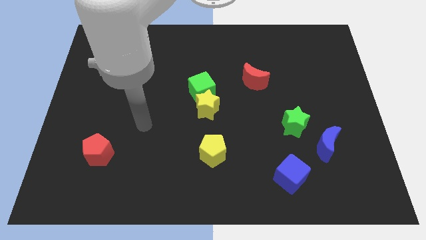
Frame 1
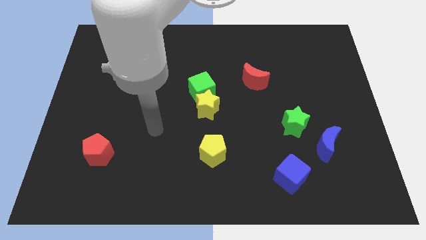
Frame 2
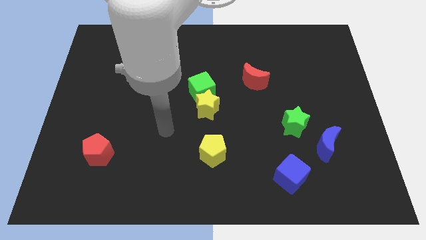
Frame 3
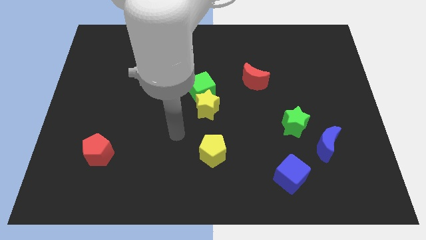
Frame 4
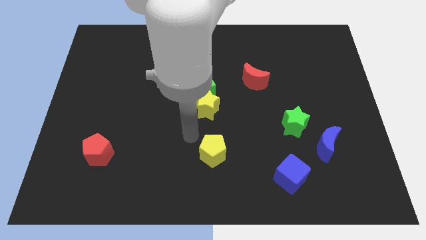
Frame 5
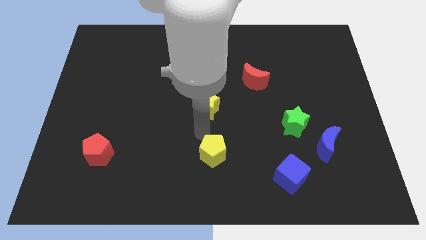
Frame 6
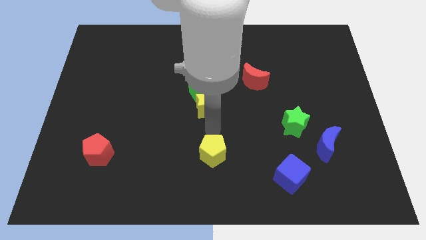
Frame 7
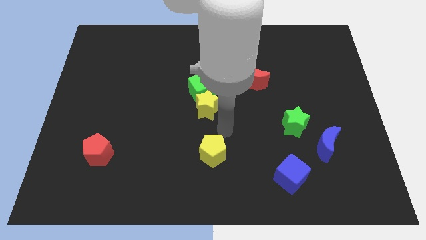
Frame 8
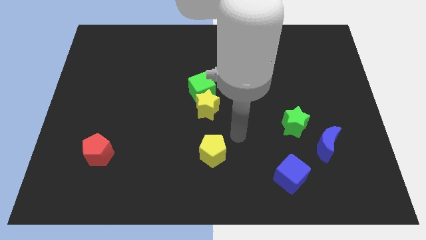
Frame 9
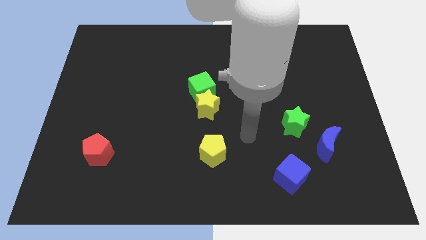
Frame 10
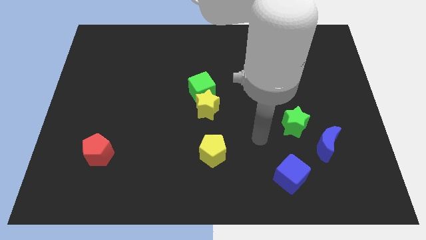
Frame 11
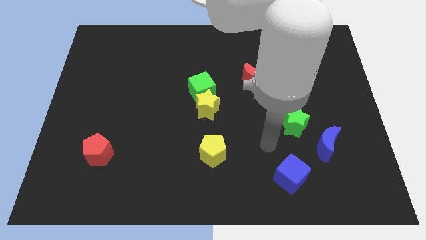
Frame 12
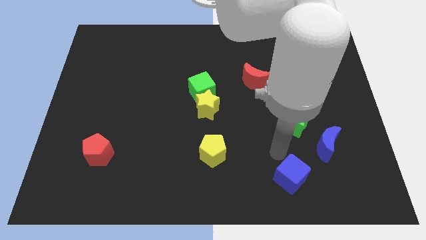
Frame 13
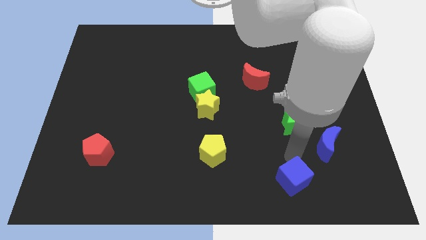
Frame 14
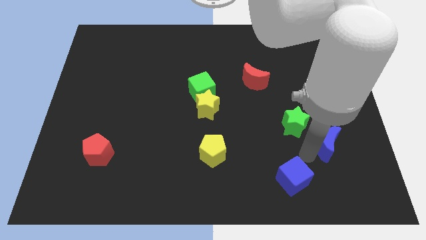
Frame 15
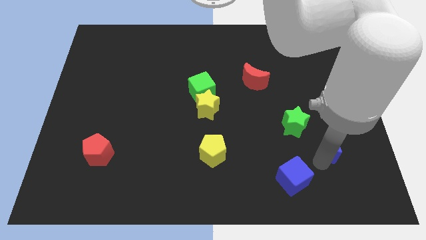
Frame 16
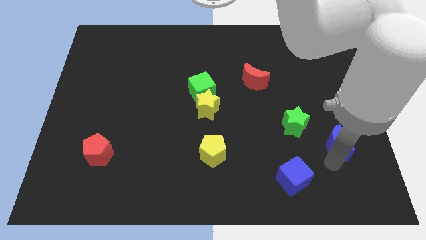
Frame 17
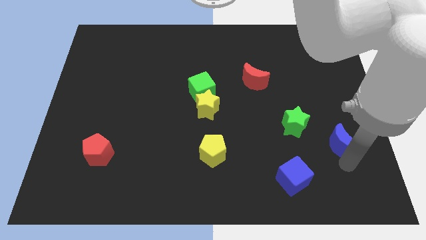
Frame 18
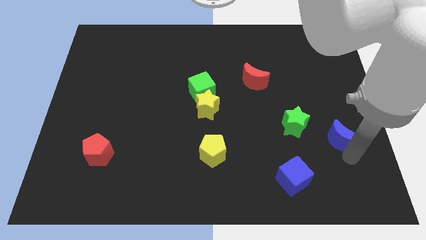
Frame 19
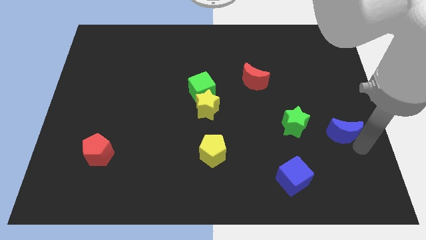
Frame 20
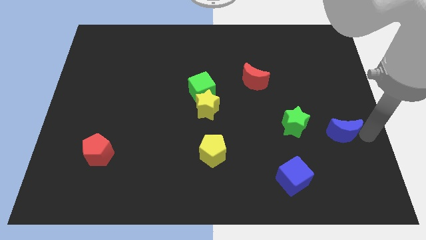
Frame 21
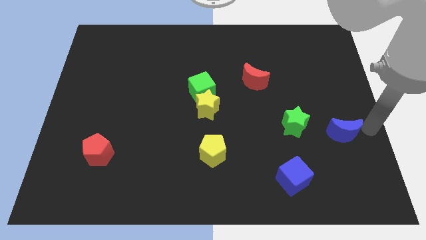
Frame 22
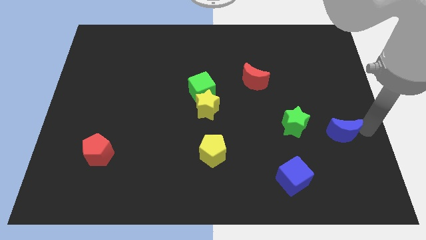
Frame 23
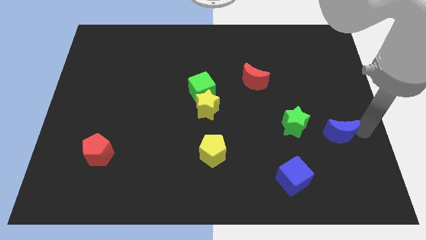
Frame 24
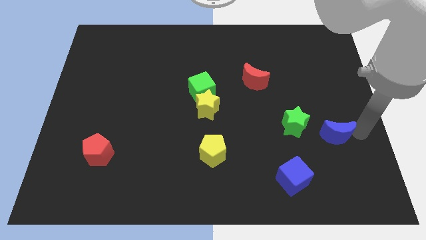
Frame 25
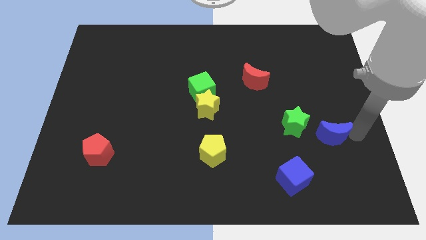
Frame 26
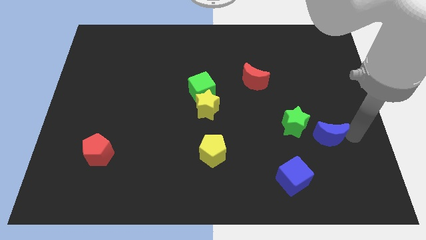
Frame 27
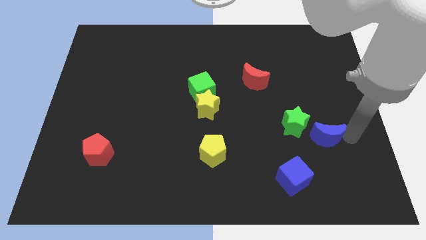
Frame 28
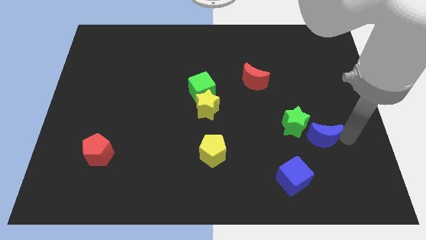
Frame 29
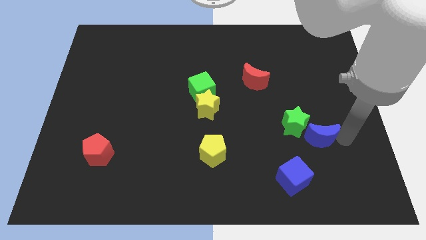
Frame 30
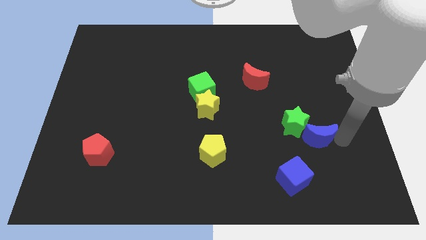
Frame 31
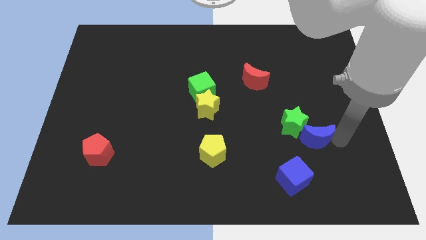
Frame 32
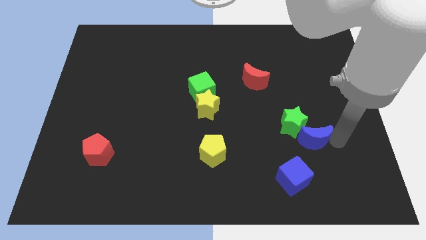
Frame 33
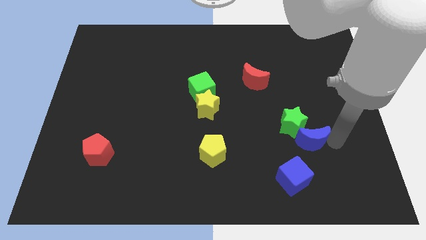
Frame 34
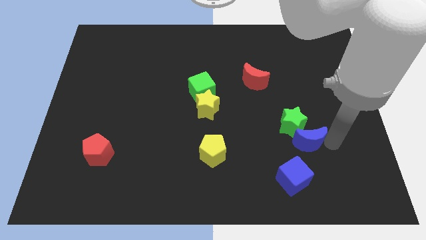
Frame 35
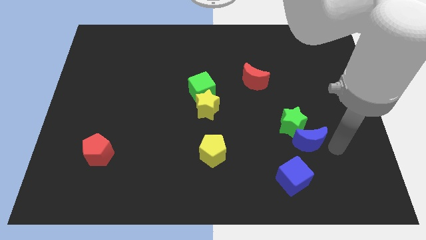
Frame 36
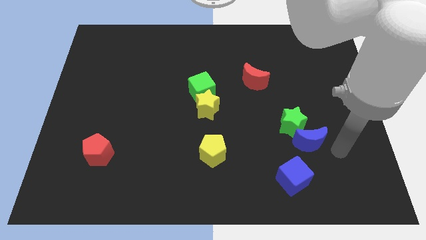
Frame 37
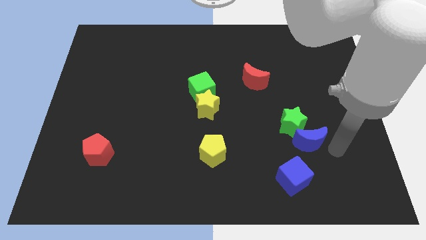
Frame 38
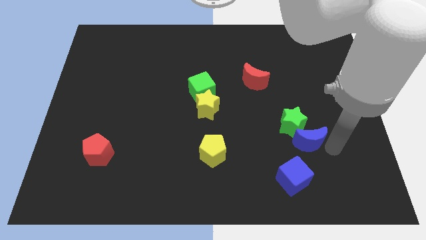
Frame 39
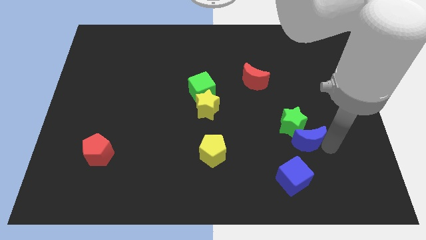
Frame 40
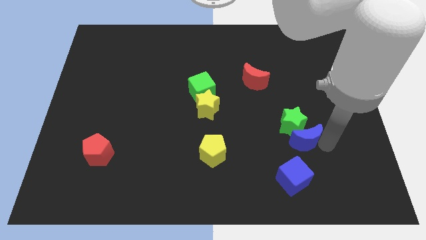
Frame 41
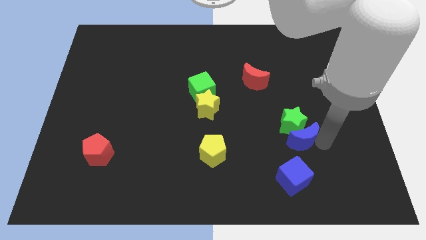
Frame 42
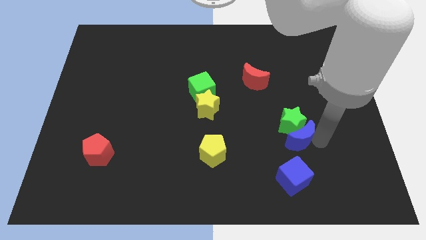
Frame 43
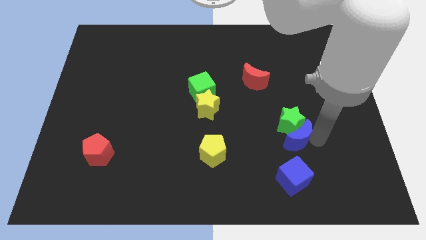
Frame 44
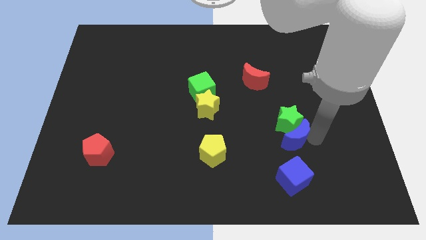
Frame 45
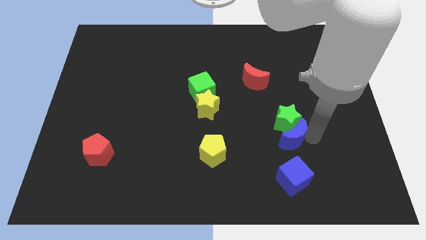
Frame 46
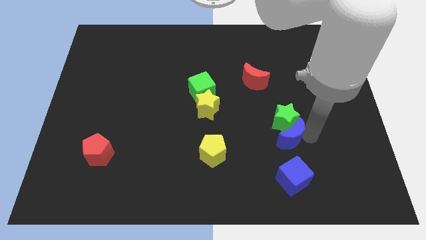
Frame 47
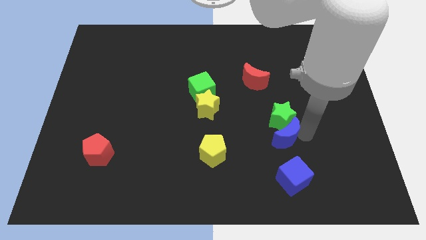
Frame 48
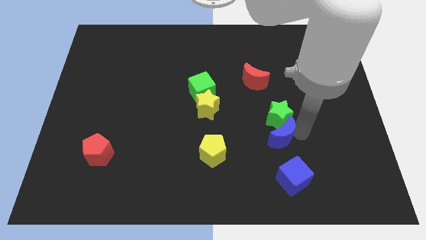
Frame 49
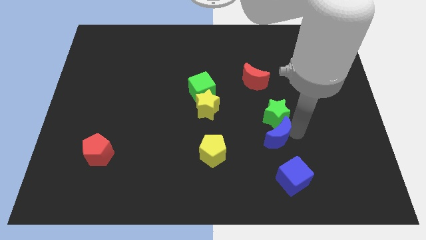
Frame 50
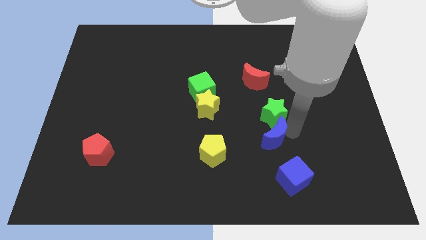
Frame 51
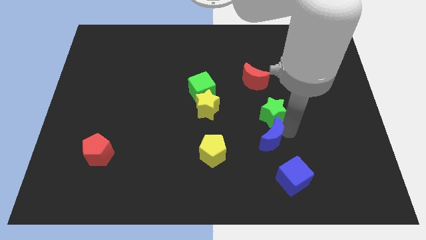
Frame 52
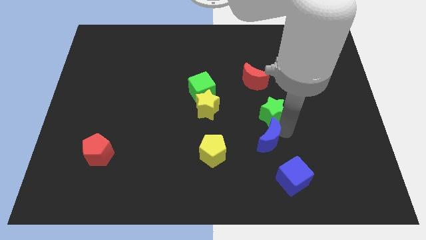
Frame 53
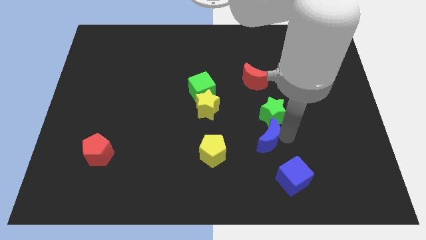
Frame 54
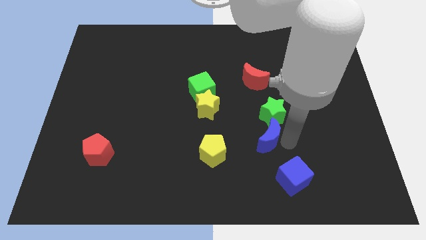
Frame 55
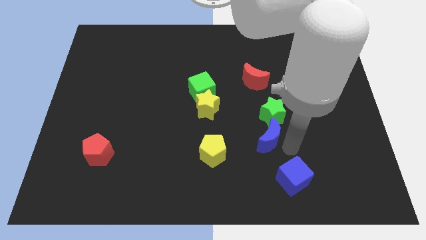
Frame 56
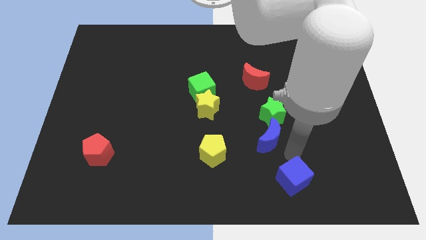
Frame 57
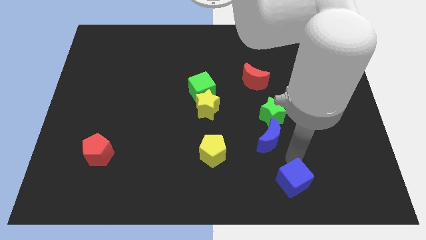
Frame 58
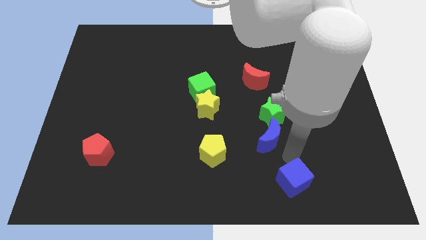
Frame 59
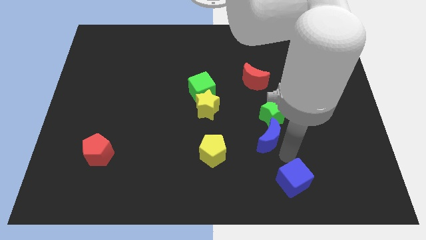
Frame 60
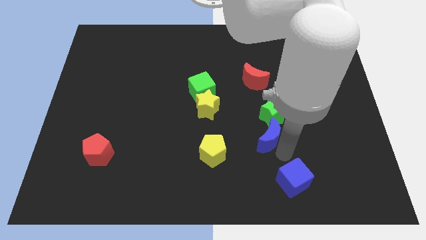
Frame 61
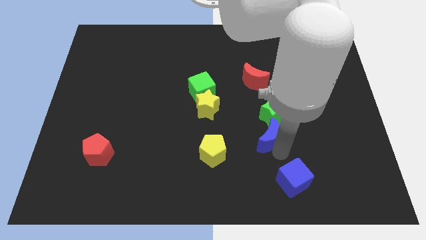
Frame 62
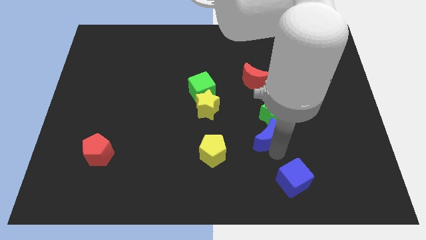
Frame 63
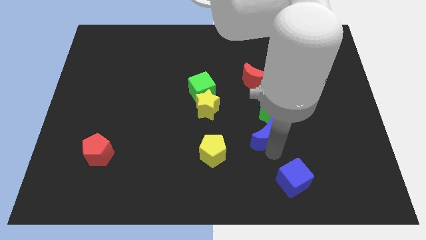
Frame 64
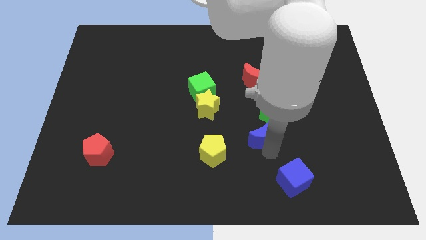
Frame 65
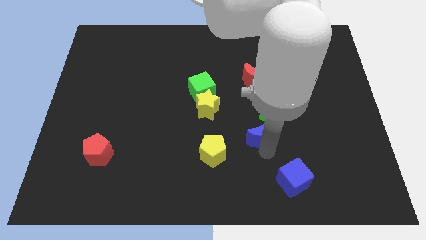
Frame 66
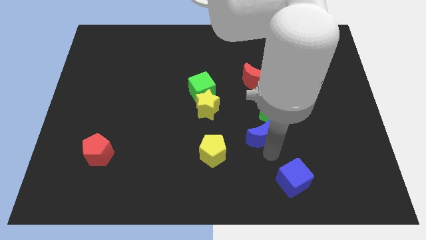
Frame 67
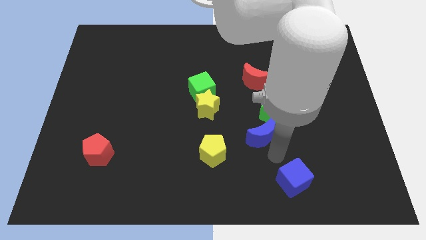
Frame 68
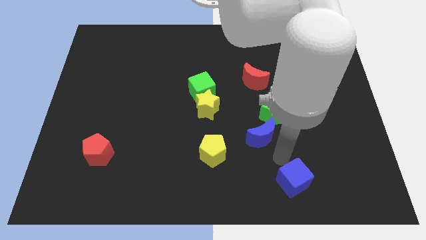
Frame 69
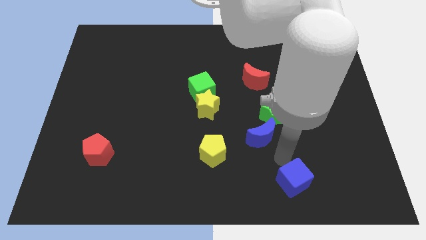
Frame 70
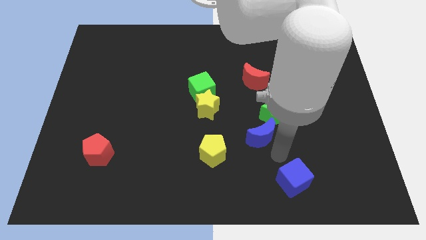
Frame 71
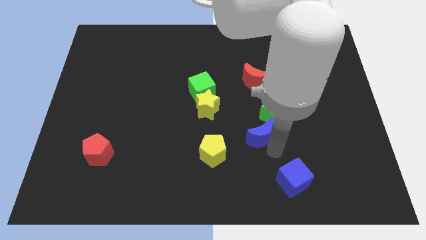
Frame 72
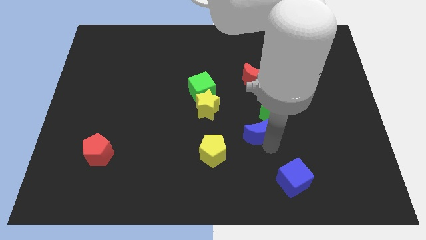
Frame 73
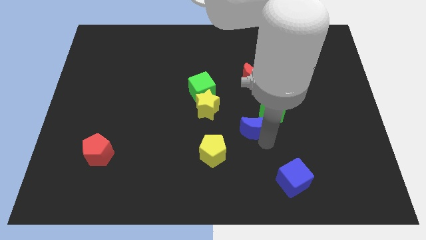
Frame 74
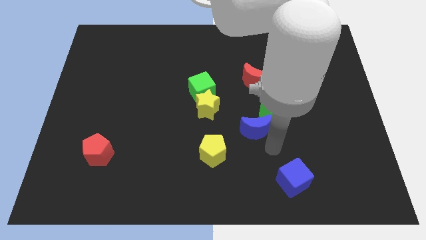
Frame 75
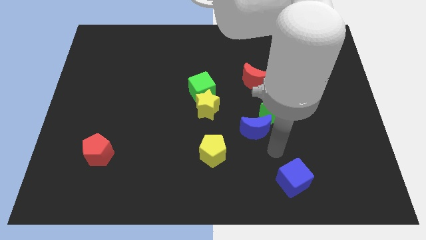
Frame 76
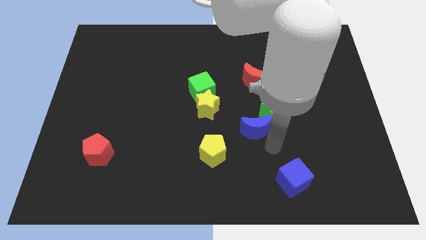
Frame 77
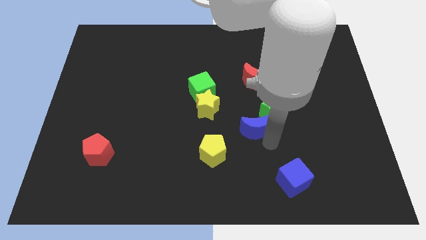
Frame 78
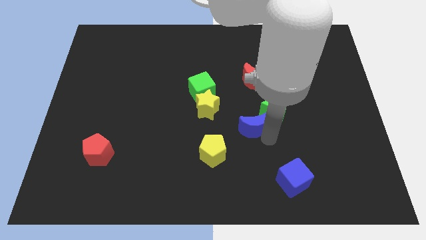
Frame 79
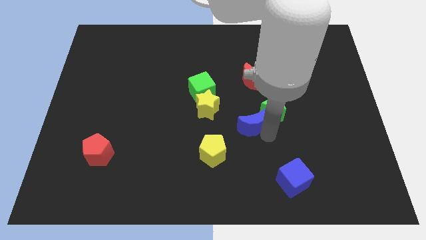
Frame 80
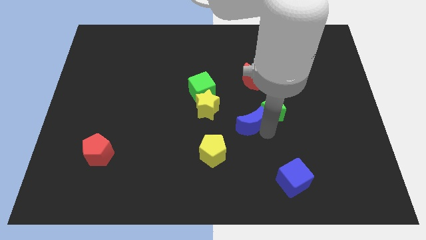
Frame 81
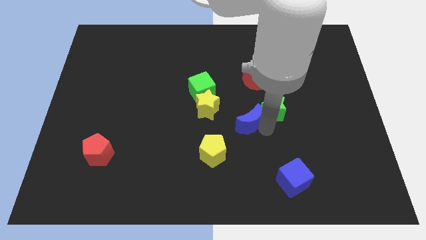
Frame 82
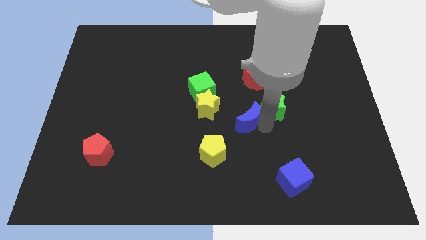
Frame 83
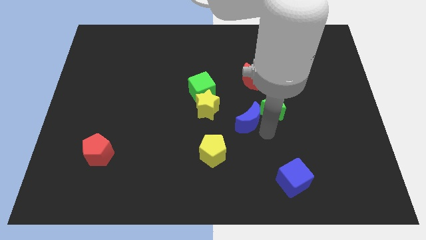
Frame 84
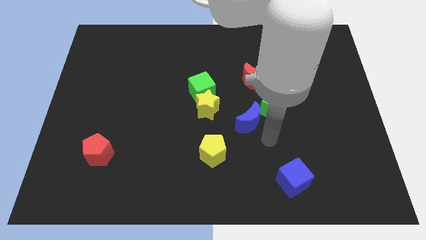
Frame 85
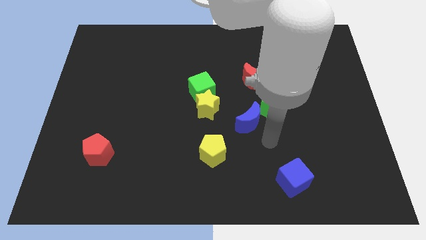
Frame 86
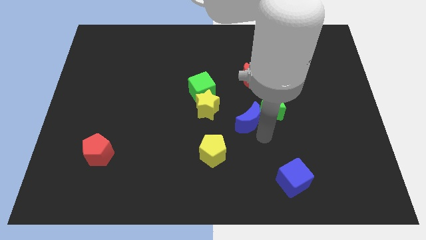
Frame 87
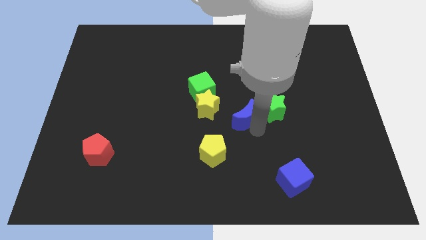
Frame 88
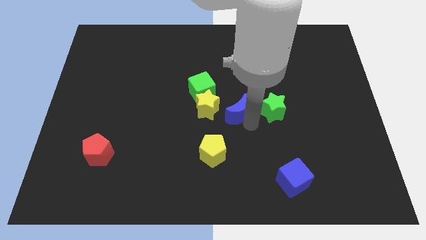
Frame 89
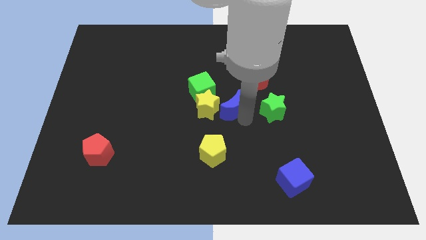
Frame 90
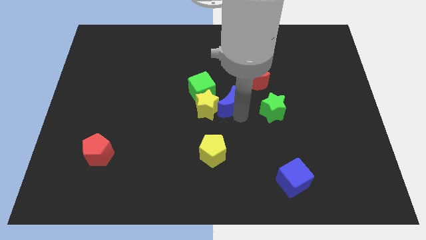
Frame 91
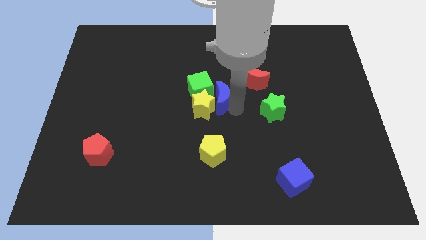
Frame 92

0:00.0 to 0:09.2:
slide the blue moon towards the green cube
